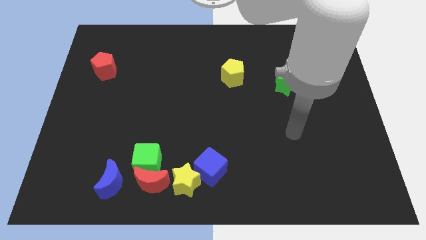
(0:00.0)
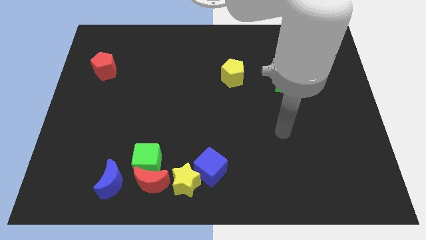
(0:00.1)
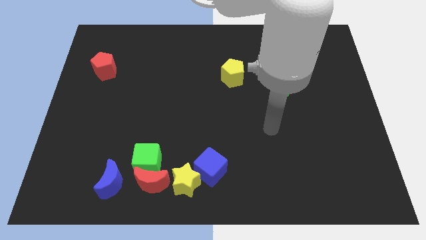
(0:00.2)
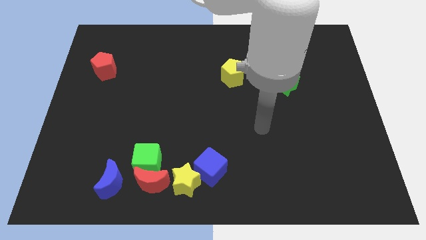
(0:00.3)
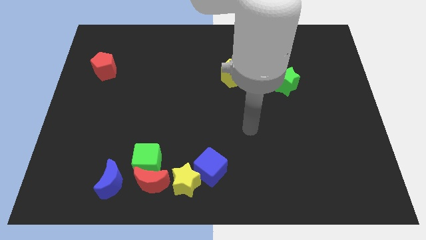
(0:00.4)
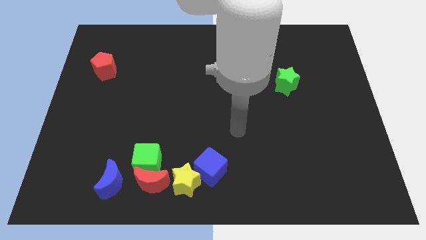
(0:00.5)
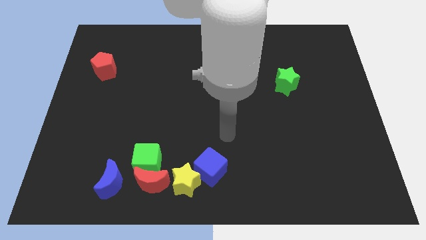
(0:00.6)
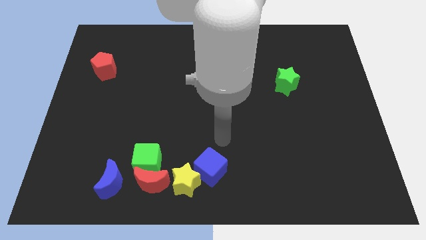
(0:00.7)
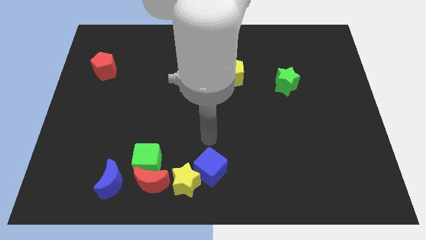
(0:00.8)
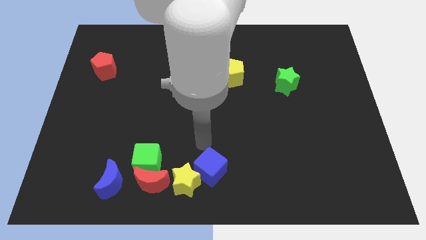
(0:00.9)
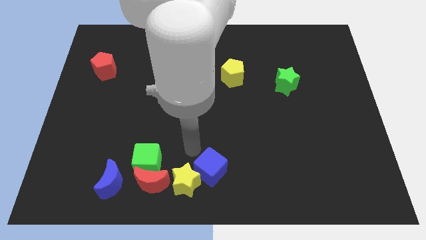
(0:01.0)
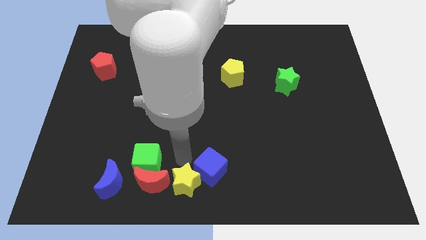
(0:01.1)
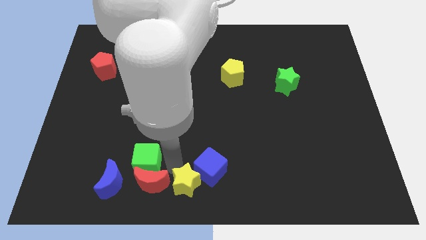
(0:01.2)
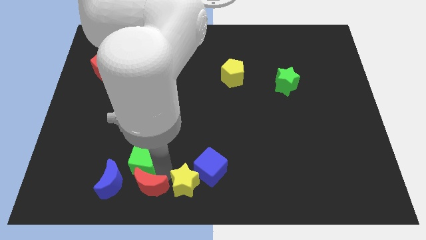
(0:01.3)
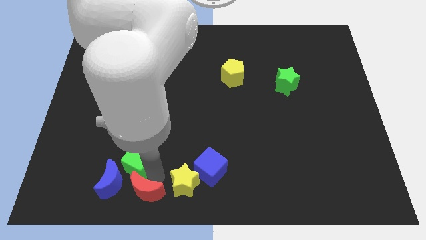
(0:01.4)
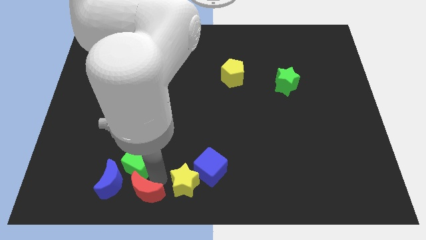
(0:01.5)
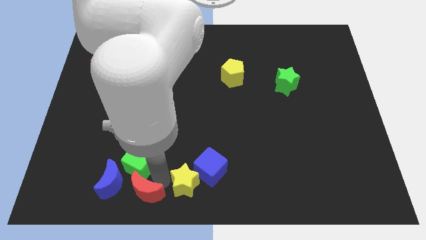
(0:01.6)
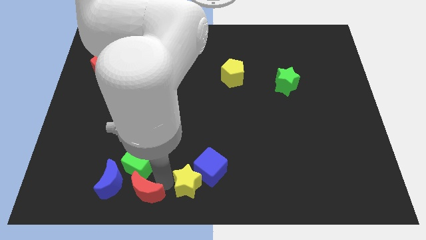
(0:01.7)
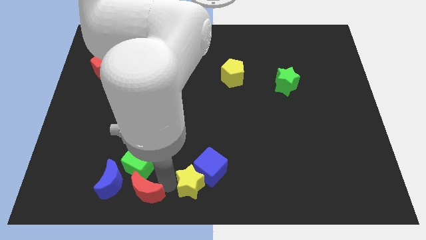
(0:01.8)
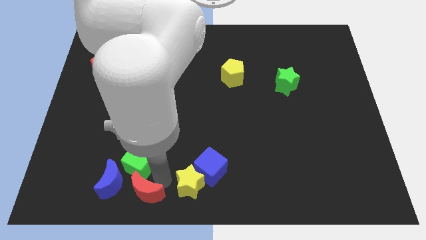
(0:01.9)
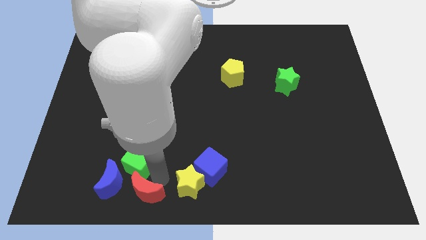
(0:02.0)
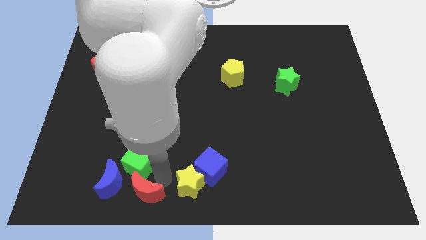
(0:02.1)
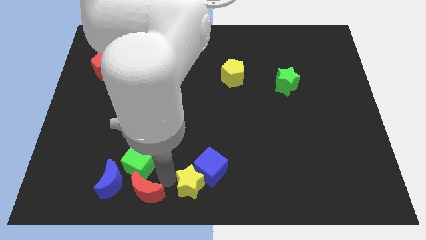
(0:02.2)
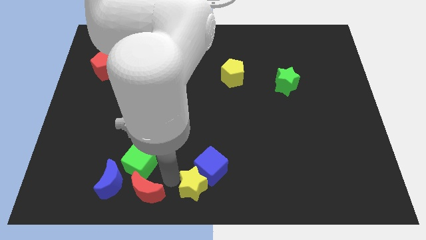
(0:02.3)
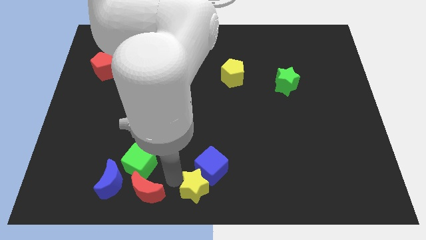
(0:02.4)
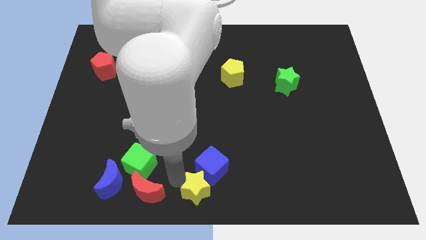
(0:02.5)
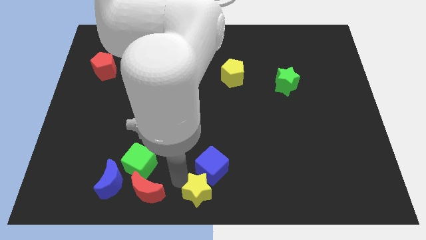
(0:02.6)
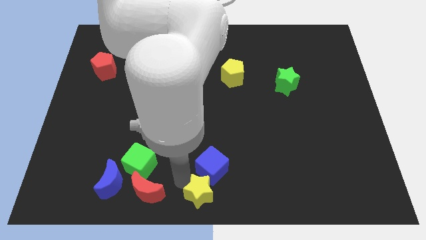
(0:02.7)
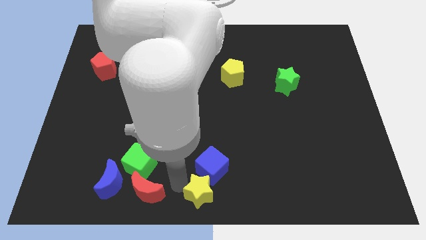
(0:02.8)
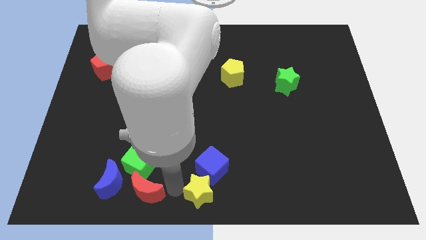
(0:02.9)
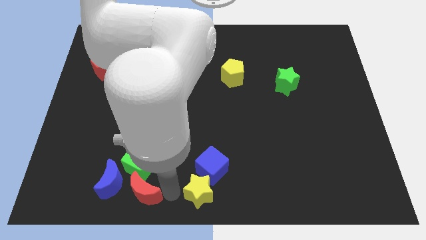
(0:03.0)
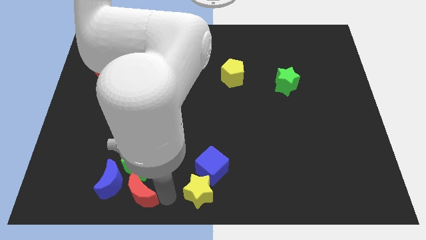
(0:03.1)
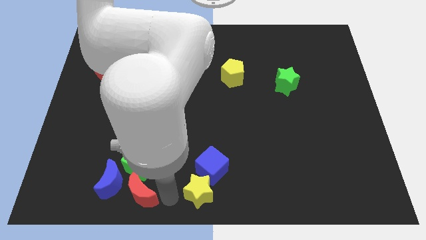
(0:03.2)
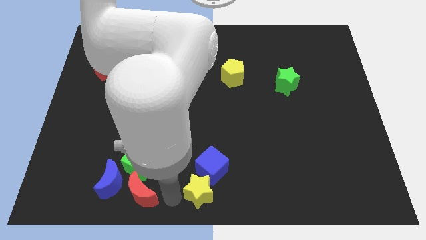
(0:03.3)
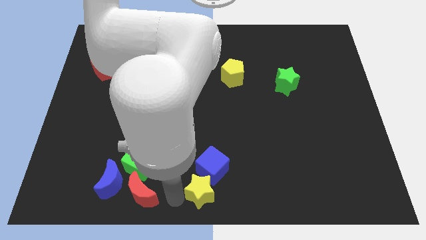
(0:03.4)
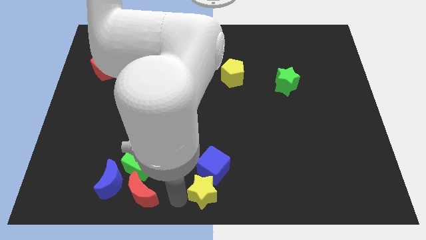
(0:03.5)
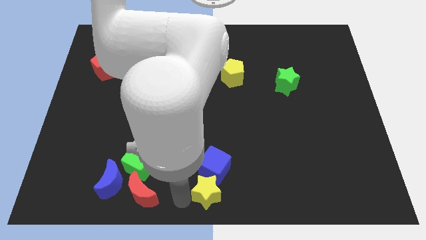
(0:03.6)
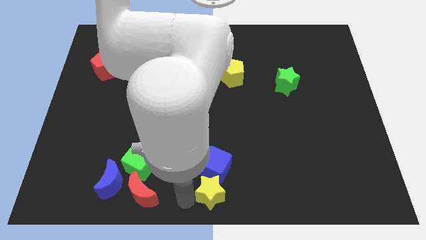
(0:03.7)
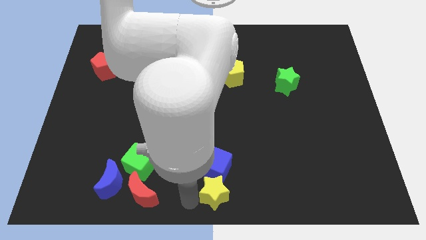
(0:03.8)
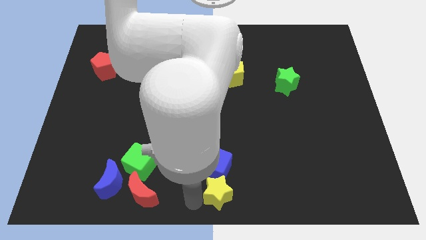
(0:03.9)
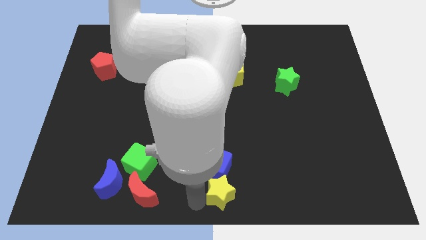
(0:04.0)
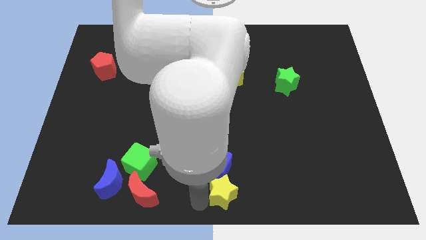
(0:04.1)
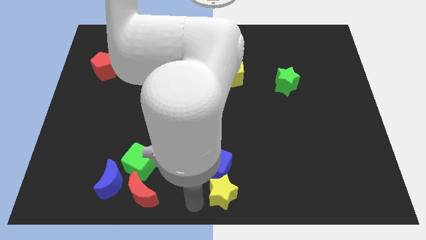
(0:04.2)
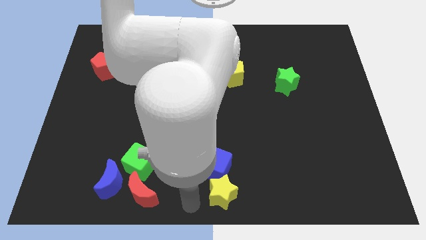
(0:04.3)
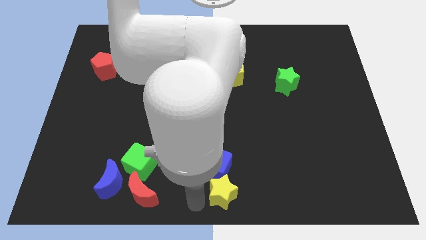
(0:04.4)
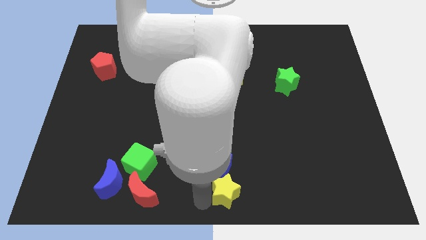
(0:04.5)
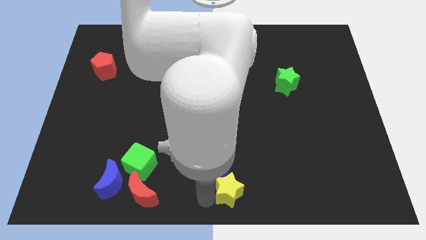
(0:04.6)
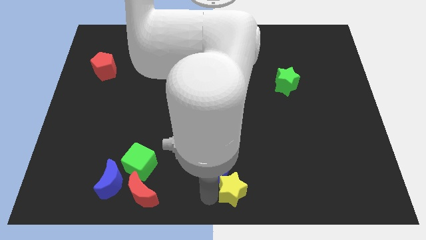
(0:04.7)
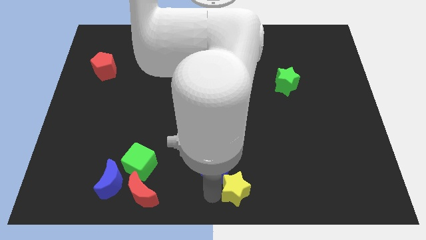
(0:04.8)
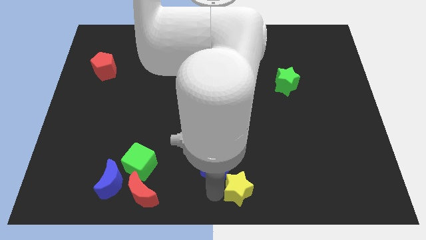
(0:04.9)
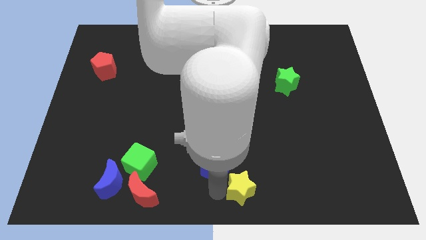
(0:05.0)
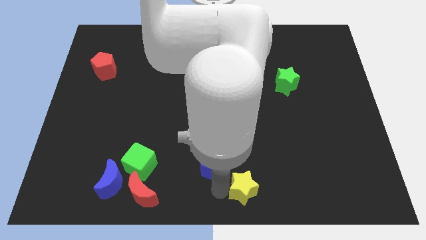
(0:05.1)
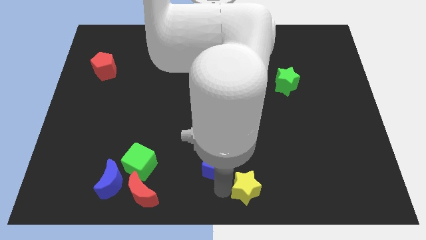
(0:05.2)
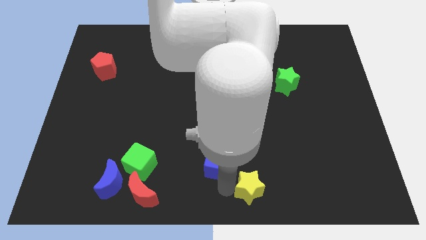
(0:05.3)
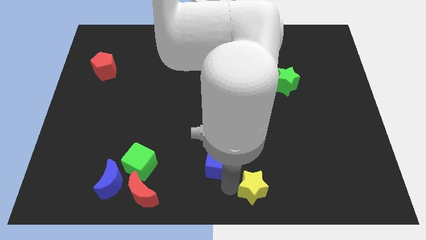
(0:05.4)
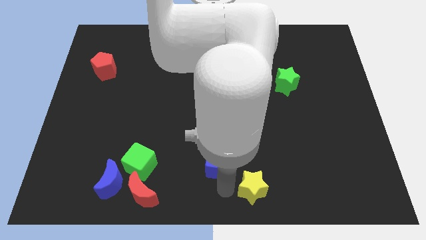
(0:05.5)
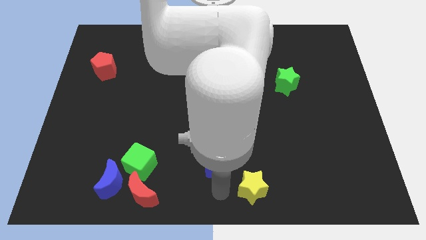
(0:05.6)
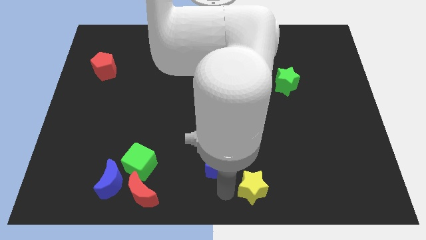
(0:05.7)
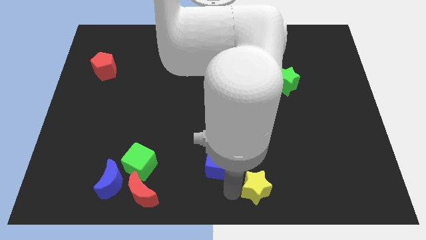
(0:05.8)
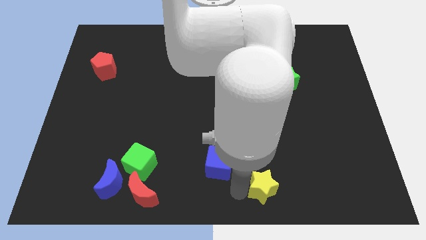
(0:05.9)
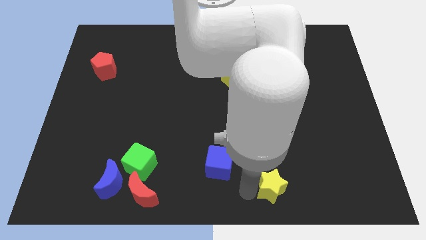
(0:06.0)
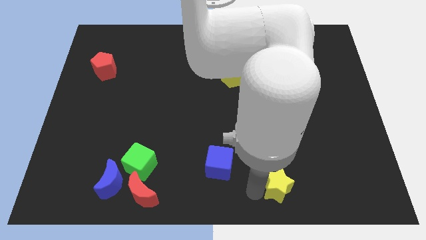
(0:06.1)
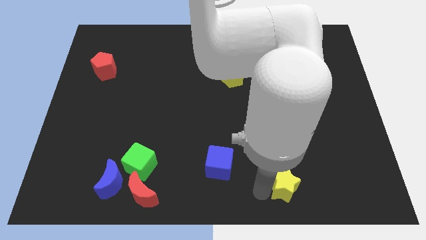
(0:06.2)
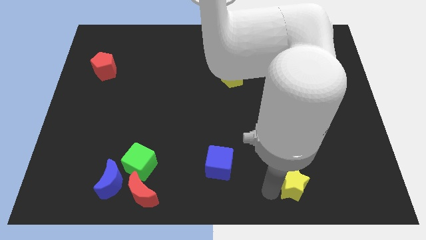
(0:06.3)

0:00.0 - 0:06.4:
slide the yellow star to the right

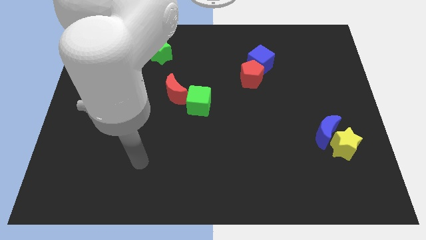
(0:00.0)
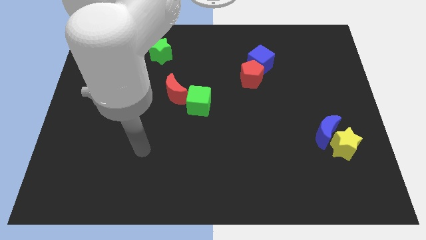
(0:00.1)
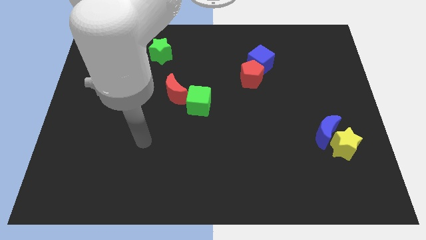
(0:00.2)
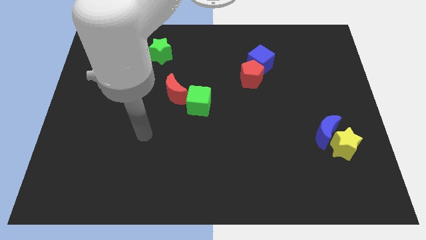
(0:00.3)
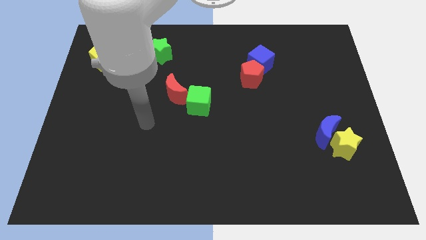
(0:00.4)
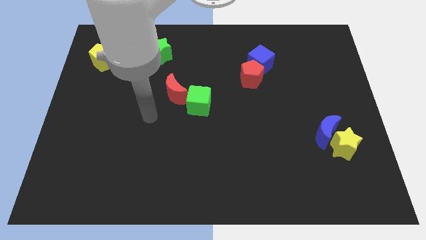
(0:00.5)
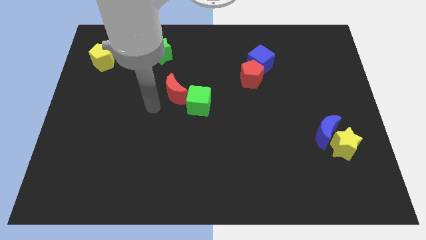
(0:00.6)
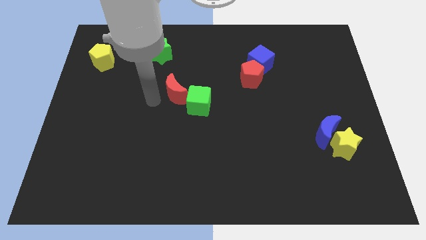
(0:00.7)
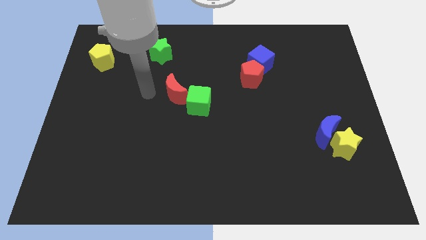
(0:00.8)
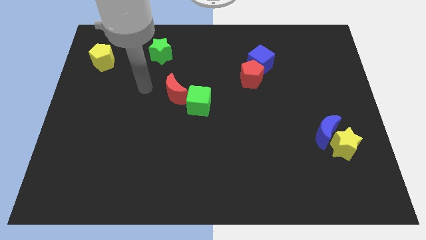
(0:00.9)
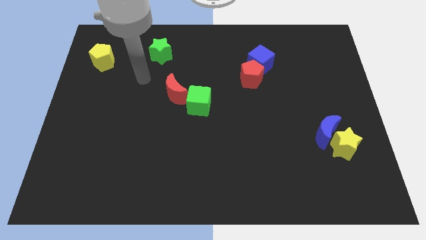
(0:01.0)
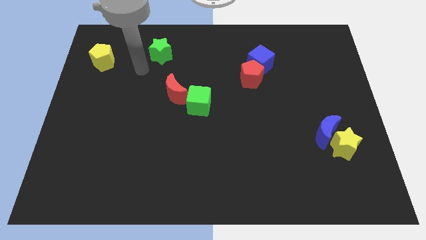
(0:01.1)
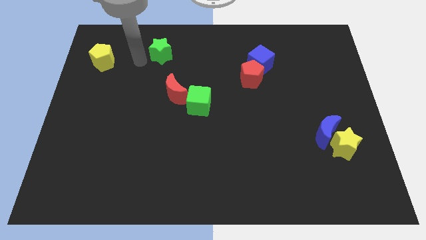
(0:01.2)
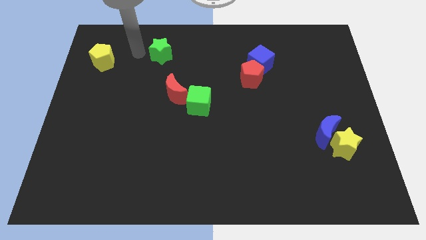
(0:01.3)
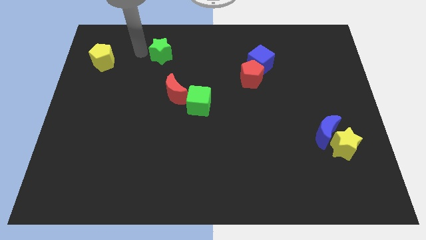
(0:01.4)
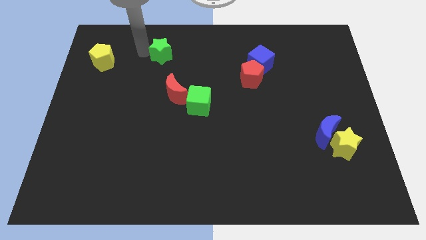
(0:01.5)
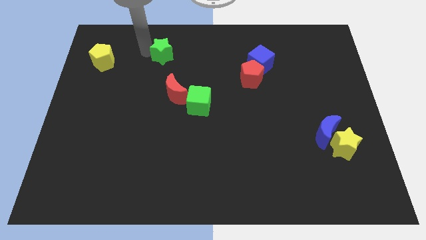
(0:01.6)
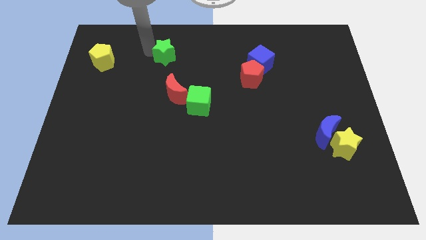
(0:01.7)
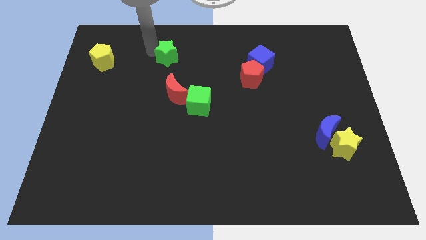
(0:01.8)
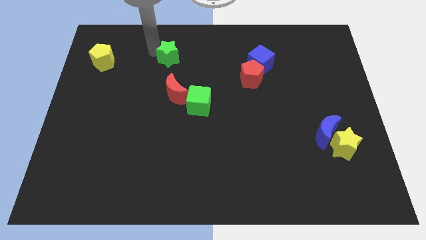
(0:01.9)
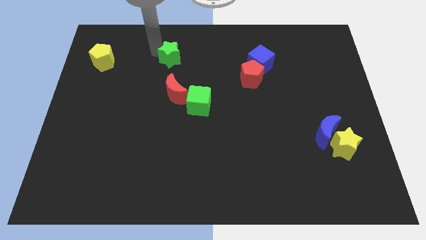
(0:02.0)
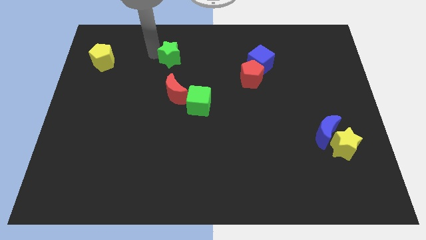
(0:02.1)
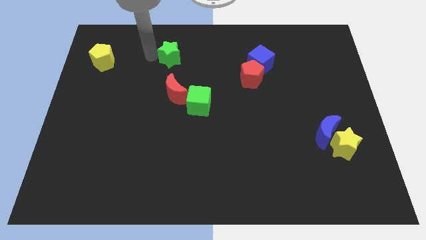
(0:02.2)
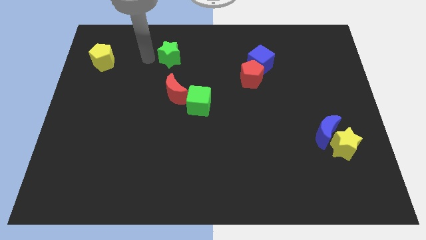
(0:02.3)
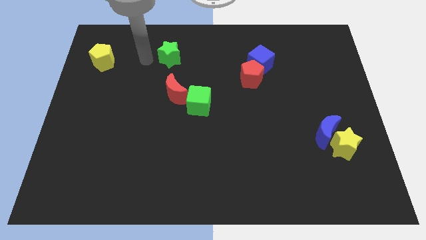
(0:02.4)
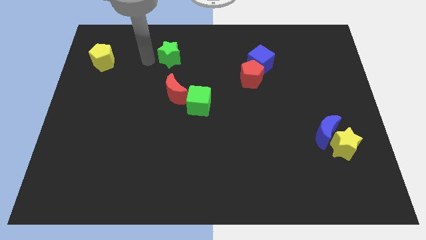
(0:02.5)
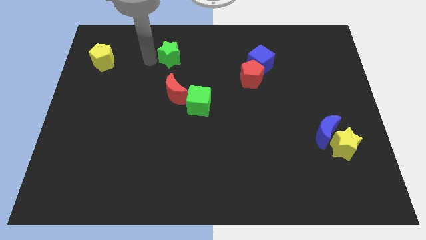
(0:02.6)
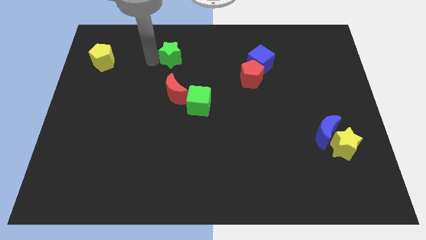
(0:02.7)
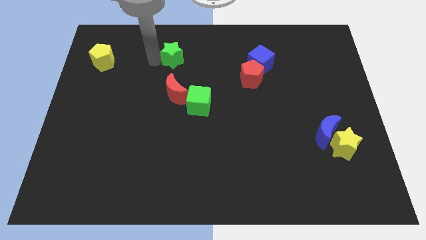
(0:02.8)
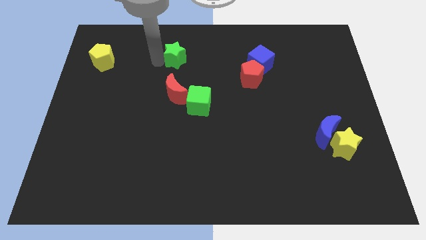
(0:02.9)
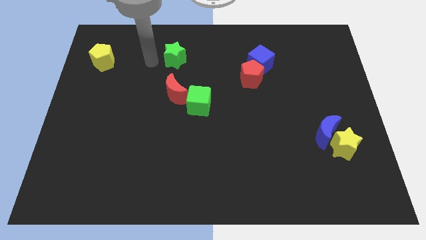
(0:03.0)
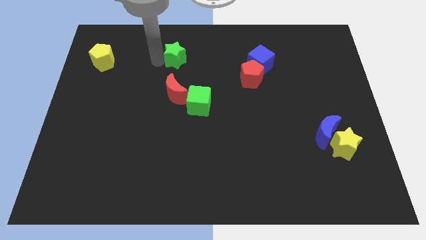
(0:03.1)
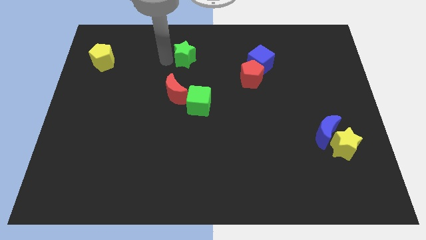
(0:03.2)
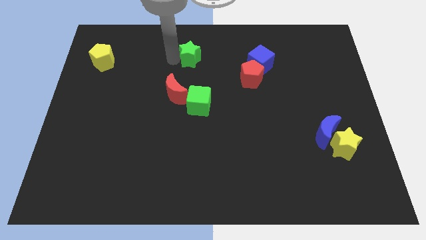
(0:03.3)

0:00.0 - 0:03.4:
move the green star somewhat right
